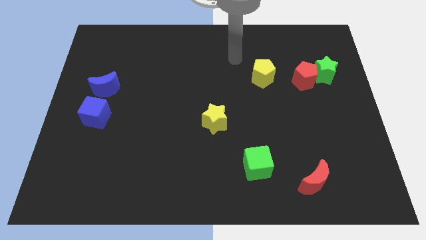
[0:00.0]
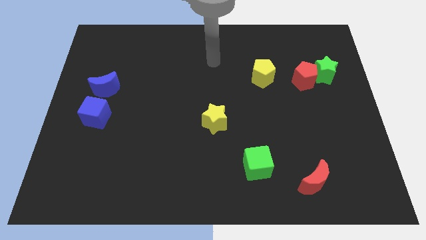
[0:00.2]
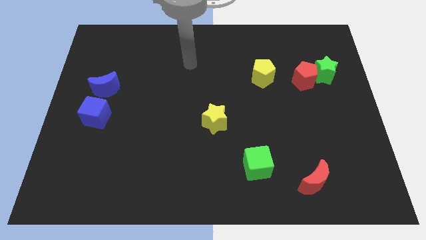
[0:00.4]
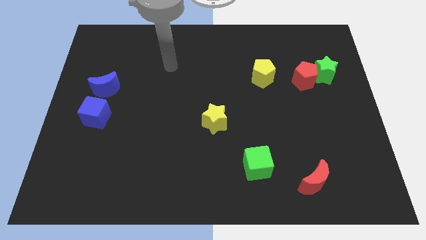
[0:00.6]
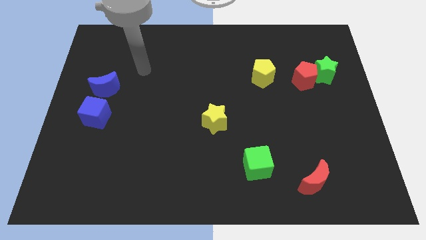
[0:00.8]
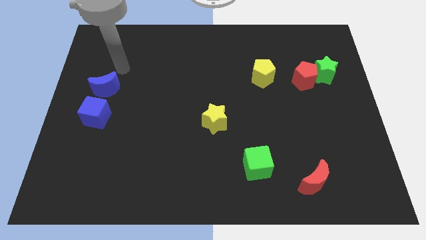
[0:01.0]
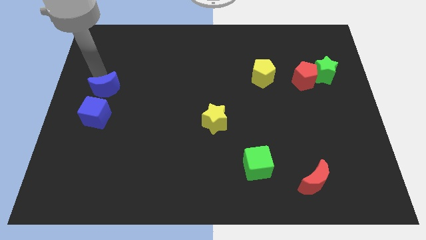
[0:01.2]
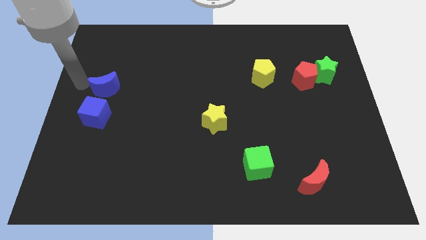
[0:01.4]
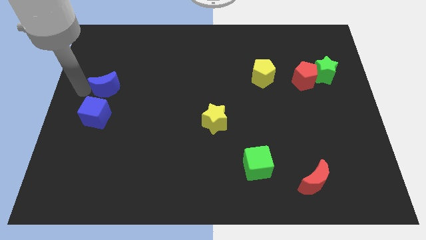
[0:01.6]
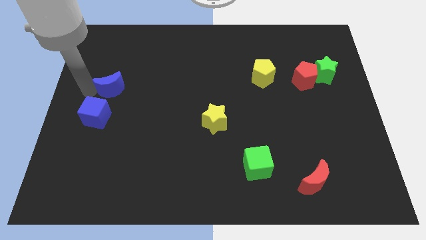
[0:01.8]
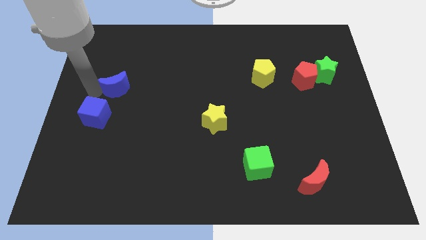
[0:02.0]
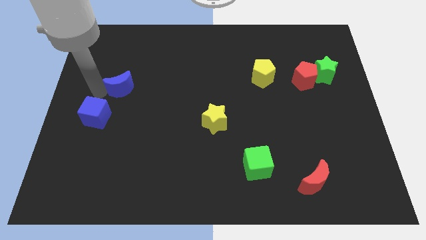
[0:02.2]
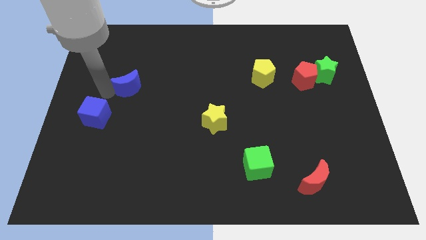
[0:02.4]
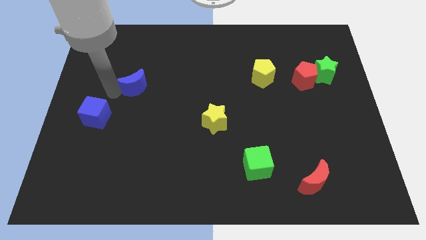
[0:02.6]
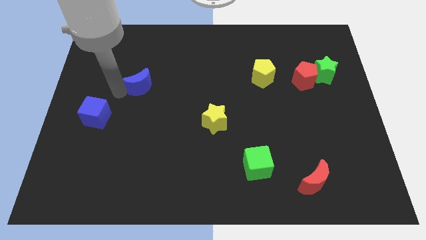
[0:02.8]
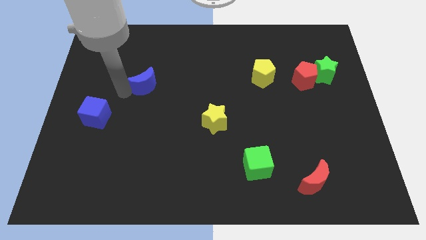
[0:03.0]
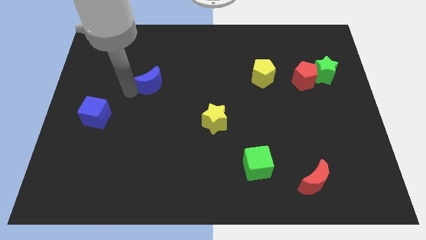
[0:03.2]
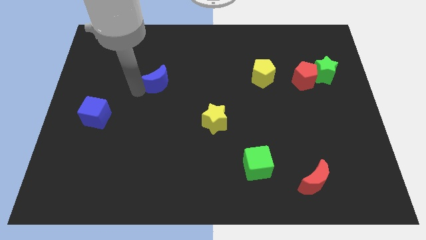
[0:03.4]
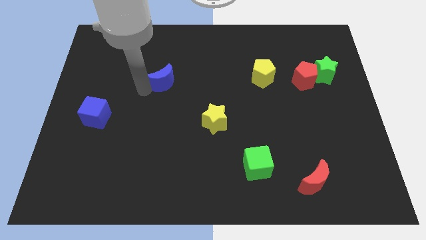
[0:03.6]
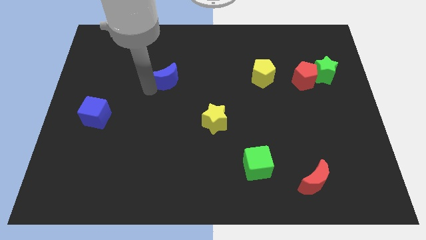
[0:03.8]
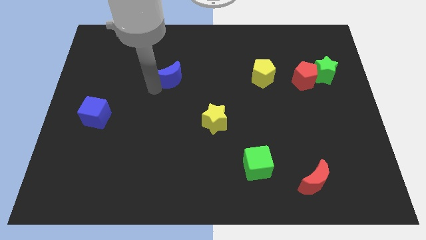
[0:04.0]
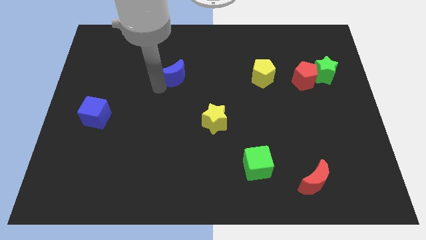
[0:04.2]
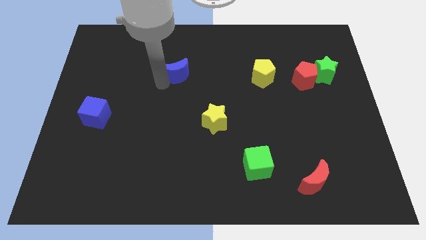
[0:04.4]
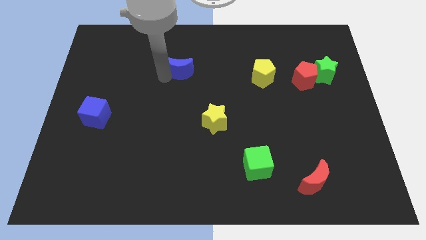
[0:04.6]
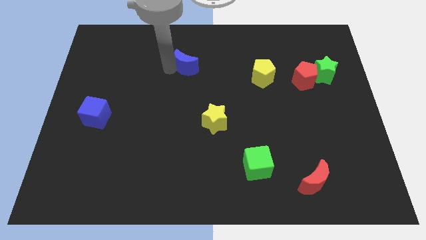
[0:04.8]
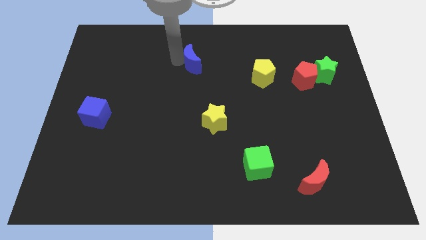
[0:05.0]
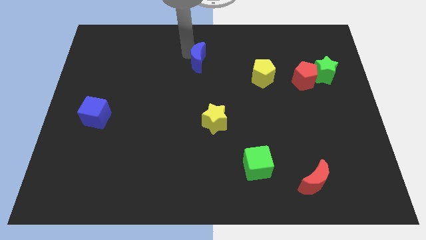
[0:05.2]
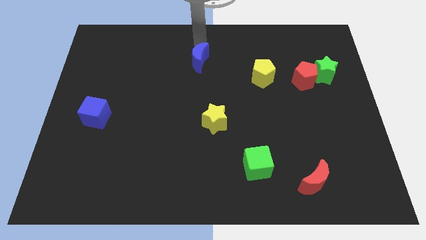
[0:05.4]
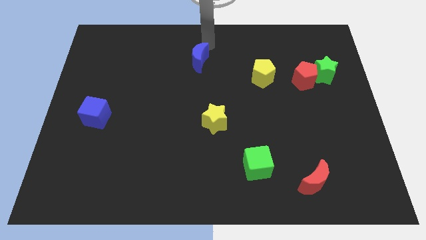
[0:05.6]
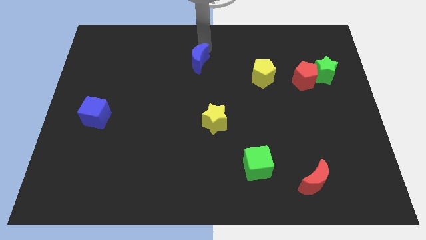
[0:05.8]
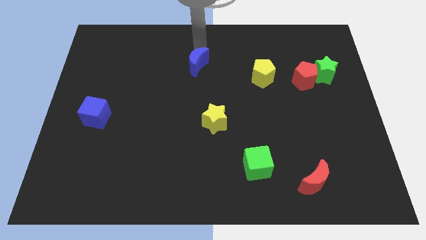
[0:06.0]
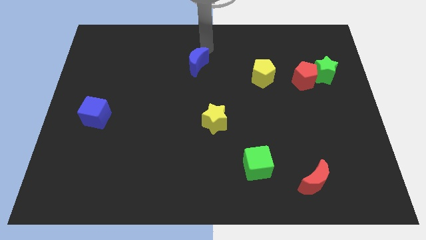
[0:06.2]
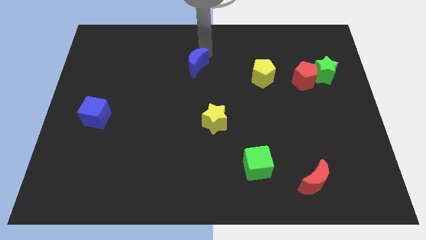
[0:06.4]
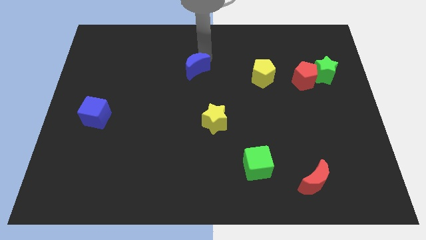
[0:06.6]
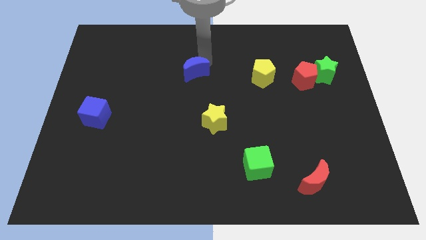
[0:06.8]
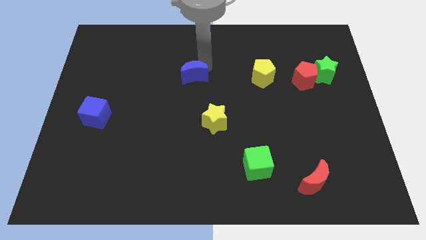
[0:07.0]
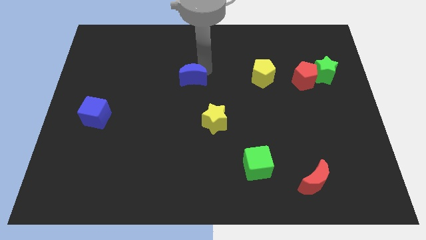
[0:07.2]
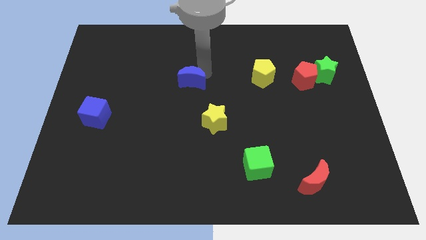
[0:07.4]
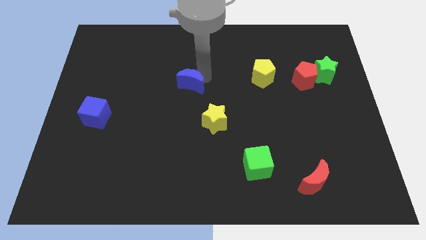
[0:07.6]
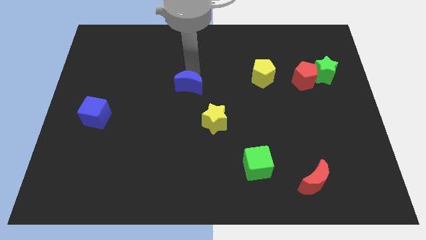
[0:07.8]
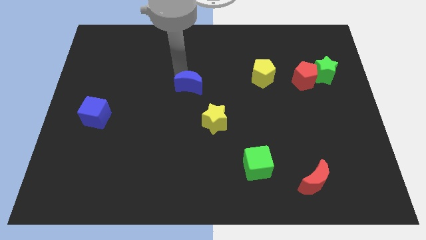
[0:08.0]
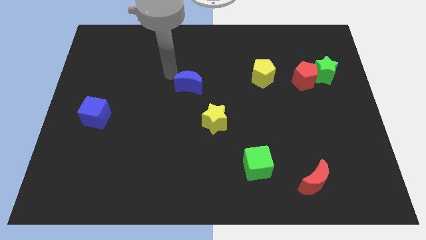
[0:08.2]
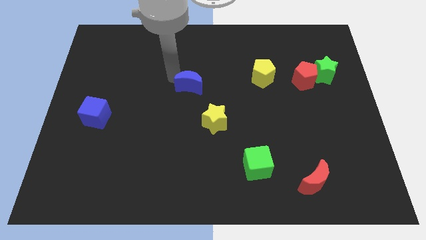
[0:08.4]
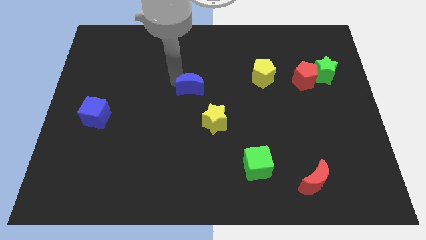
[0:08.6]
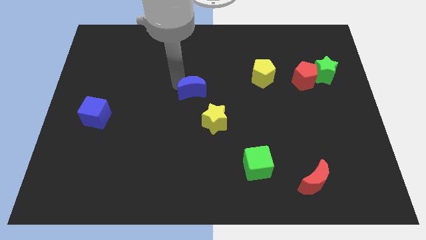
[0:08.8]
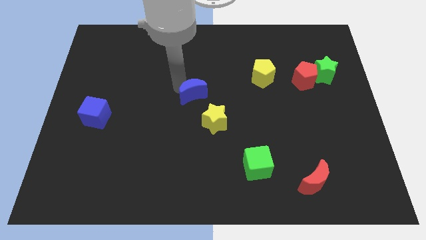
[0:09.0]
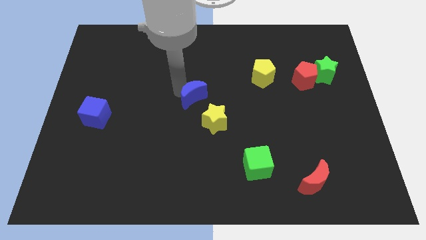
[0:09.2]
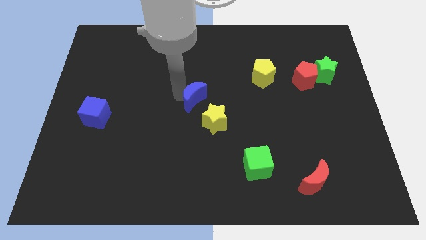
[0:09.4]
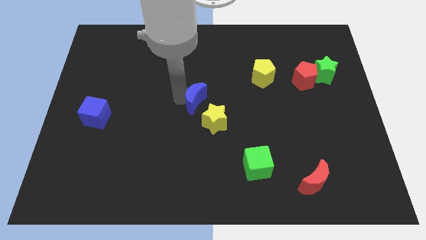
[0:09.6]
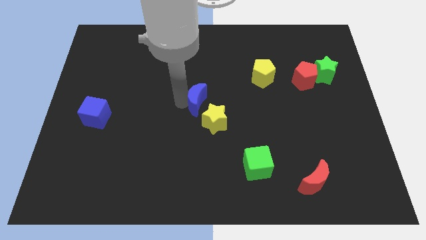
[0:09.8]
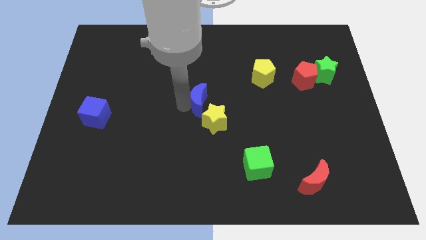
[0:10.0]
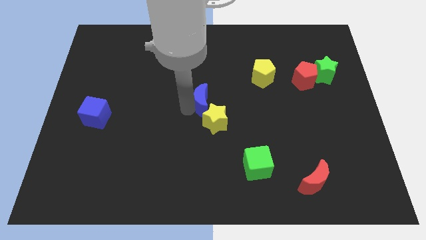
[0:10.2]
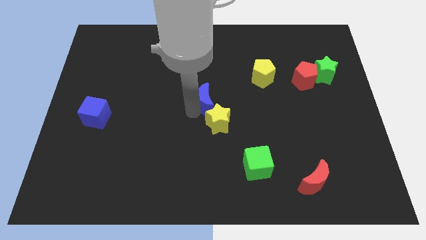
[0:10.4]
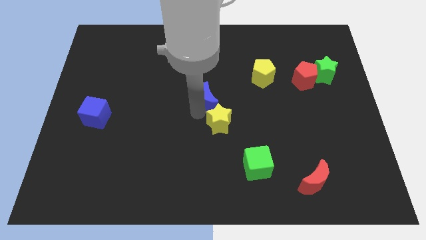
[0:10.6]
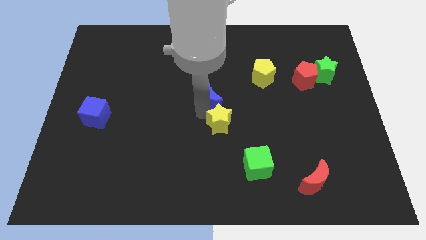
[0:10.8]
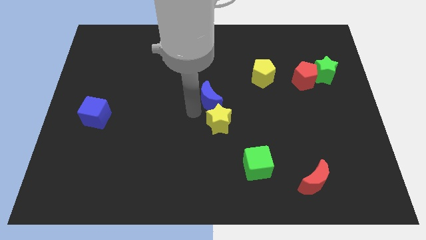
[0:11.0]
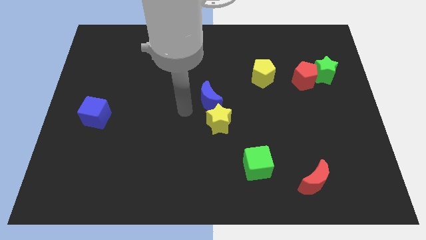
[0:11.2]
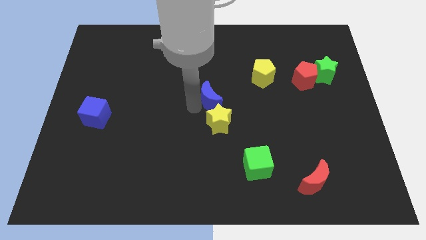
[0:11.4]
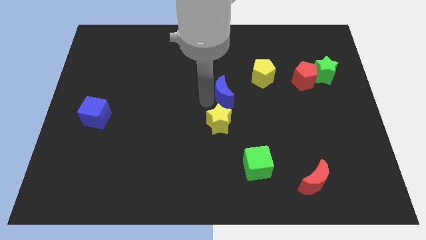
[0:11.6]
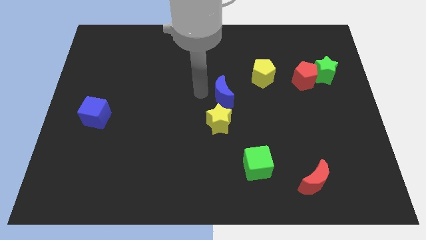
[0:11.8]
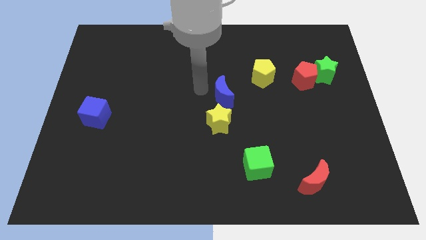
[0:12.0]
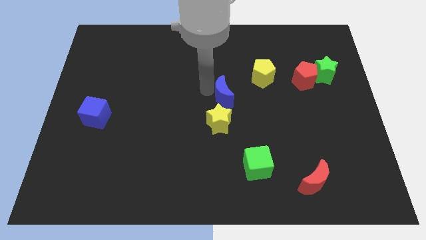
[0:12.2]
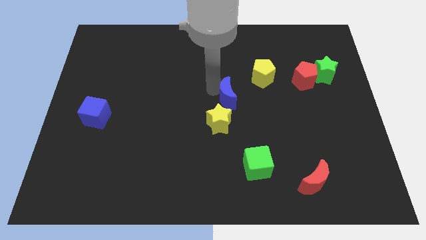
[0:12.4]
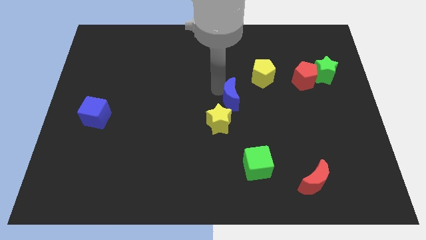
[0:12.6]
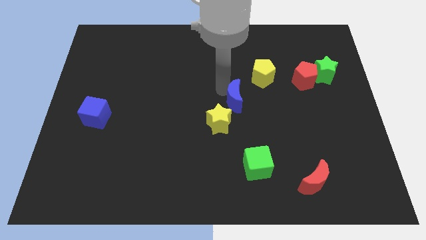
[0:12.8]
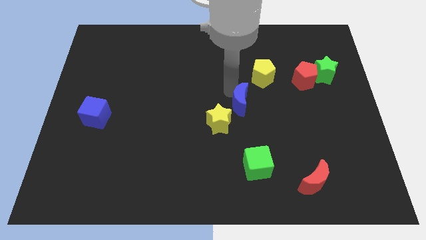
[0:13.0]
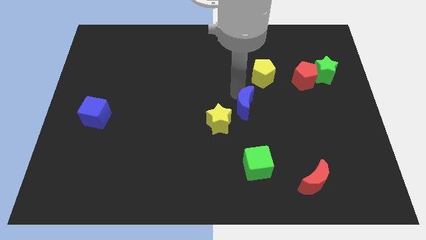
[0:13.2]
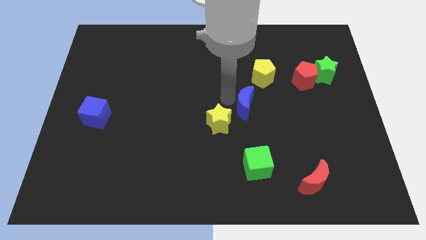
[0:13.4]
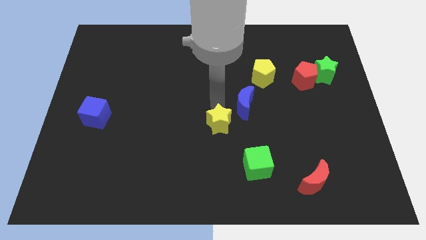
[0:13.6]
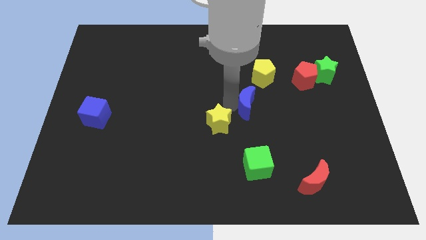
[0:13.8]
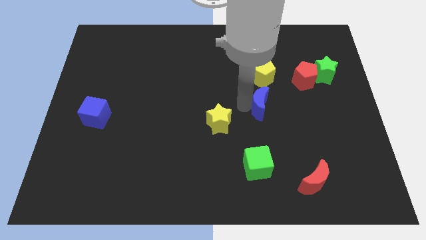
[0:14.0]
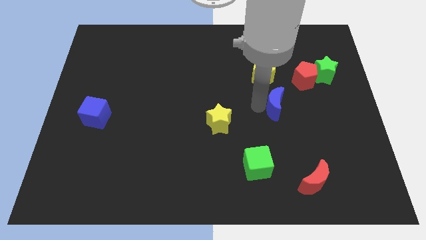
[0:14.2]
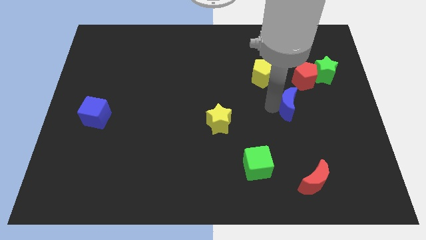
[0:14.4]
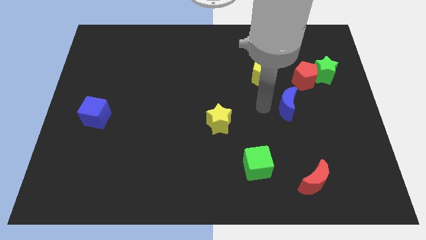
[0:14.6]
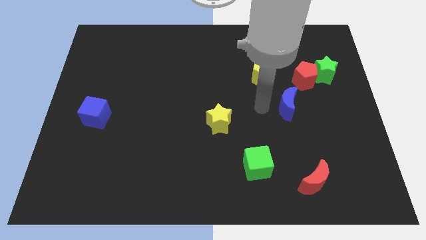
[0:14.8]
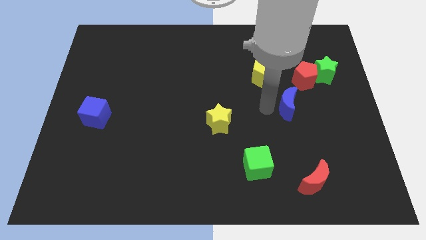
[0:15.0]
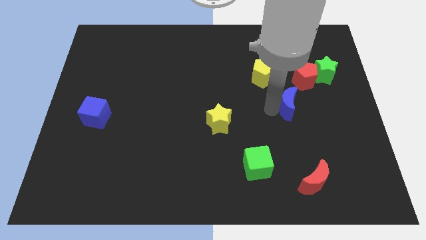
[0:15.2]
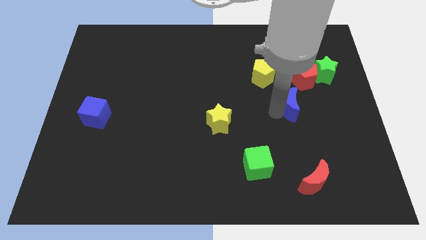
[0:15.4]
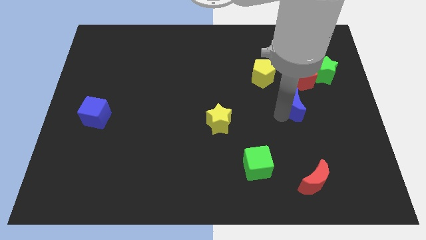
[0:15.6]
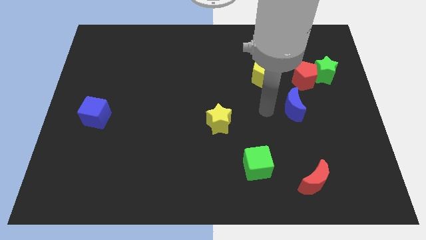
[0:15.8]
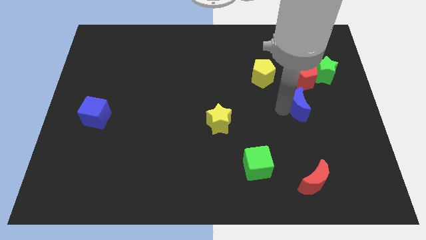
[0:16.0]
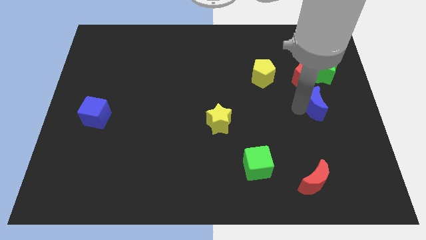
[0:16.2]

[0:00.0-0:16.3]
push the blue moon below the green star
